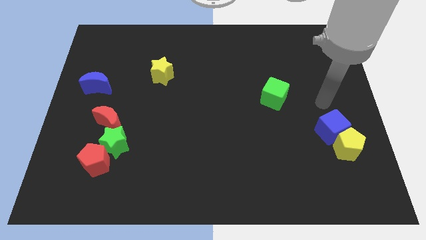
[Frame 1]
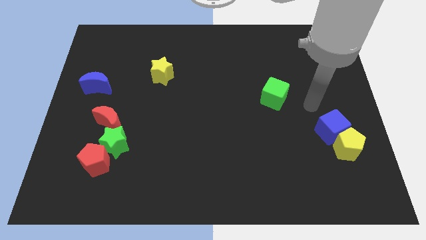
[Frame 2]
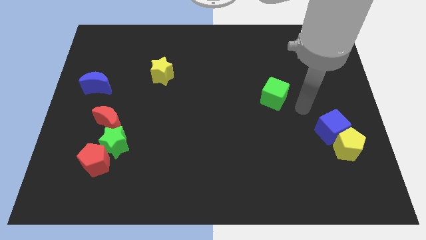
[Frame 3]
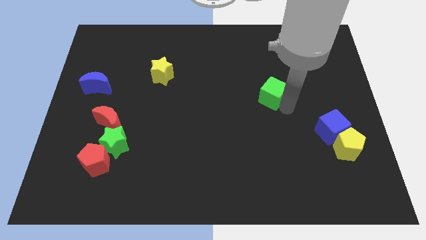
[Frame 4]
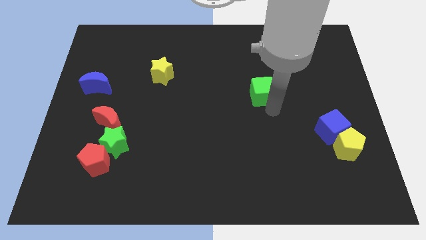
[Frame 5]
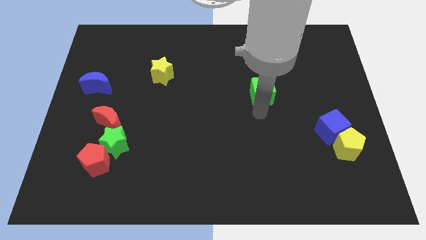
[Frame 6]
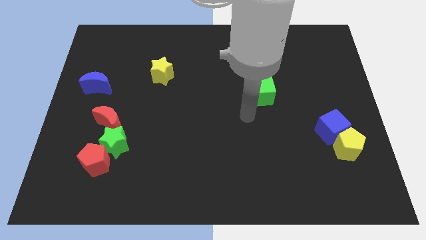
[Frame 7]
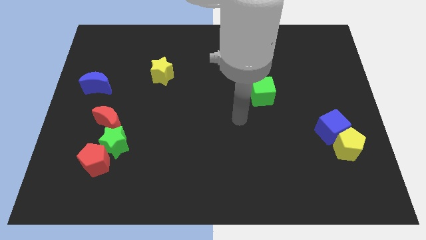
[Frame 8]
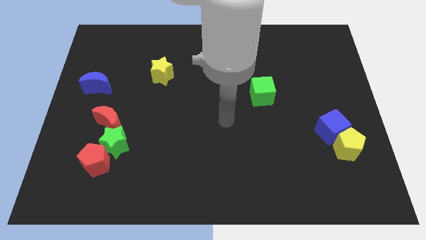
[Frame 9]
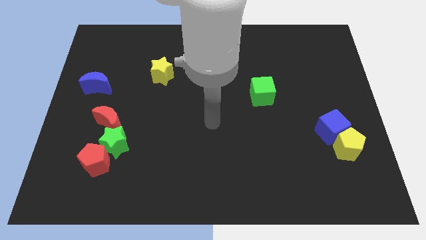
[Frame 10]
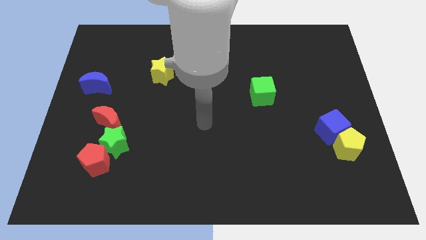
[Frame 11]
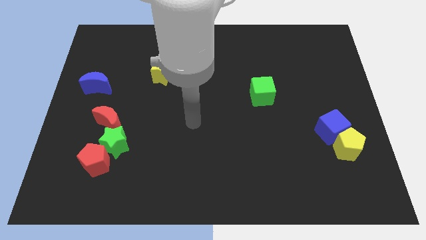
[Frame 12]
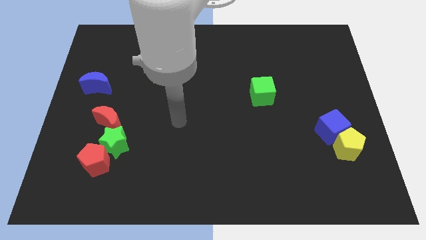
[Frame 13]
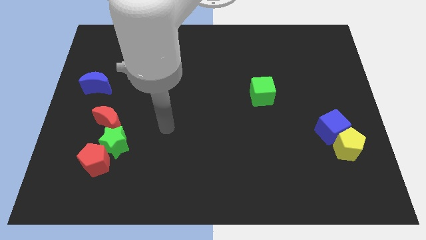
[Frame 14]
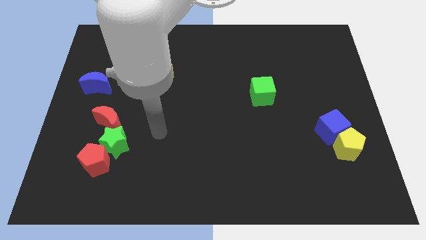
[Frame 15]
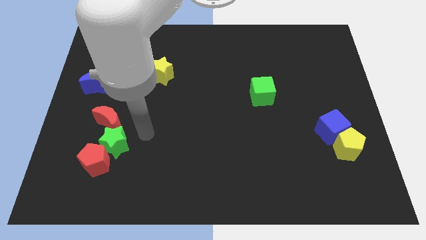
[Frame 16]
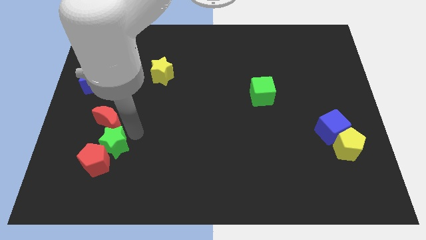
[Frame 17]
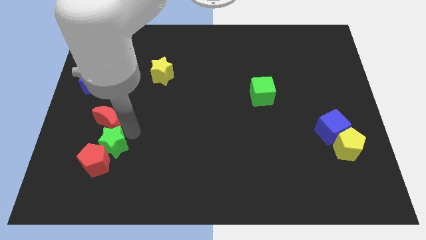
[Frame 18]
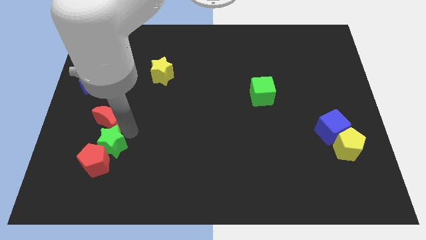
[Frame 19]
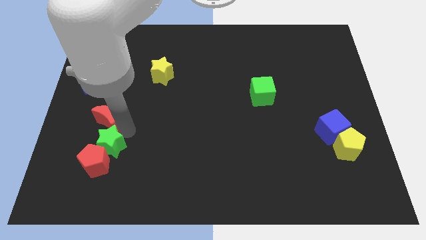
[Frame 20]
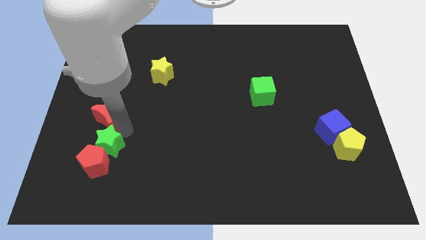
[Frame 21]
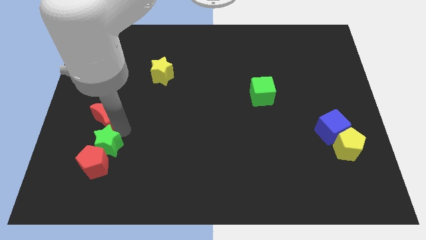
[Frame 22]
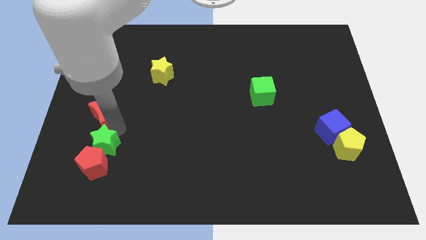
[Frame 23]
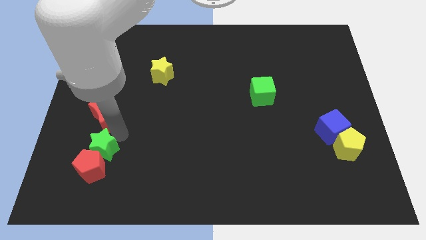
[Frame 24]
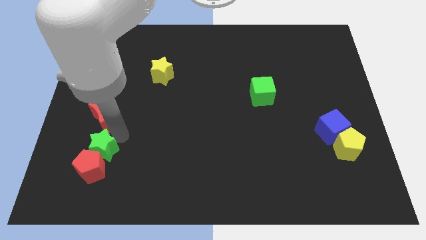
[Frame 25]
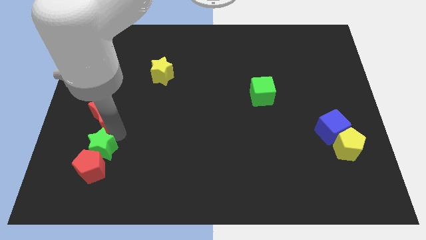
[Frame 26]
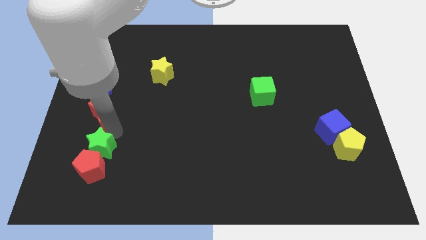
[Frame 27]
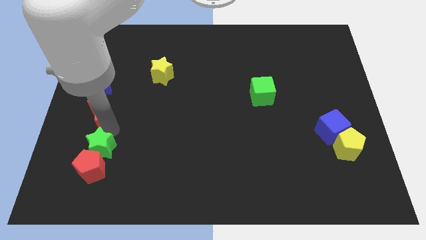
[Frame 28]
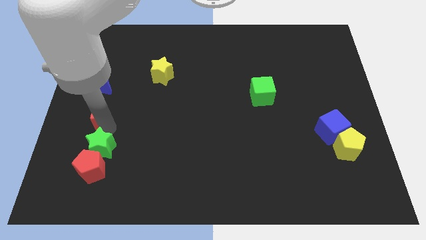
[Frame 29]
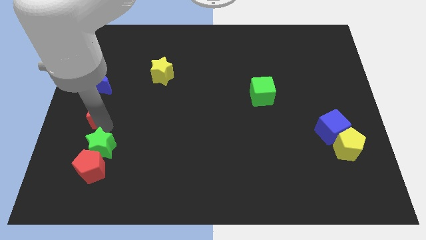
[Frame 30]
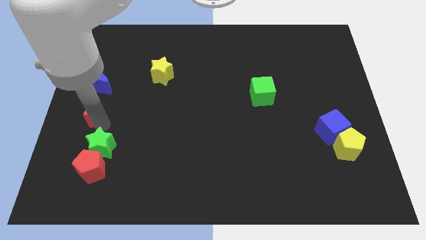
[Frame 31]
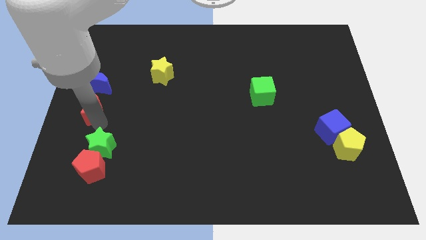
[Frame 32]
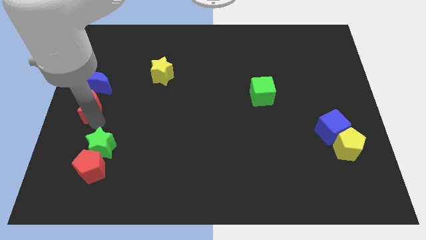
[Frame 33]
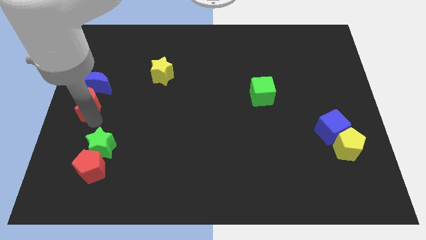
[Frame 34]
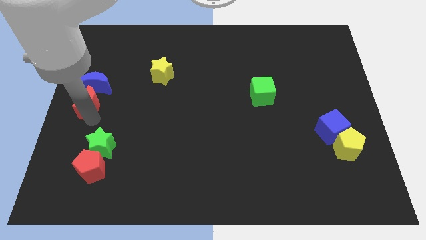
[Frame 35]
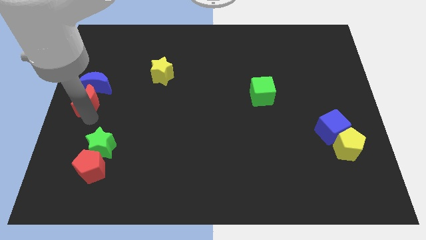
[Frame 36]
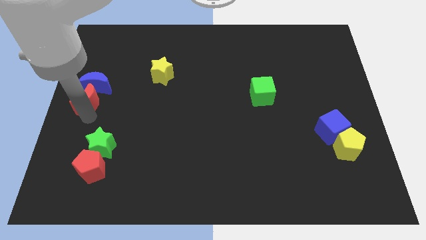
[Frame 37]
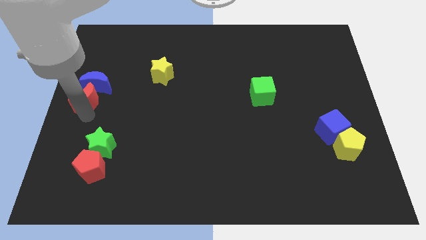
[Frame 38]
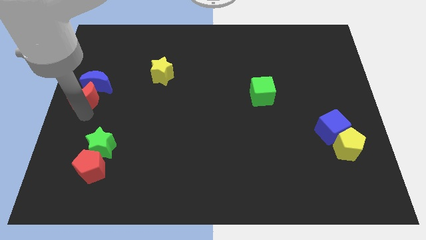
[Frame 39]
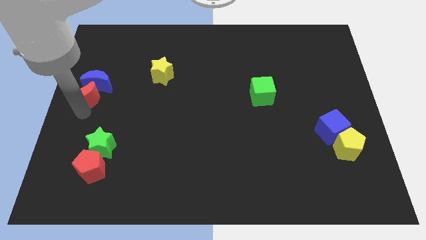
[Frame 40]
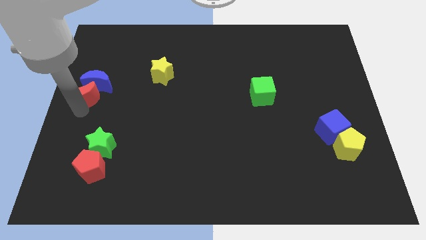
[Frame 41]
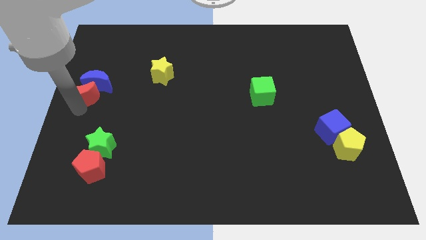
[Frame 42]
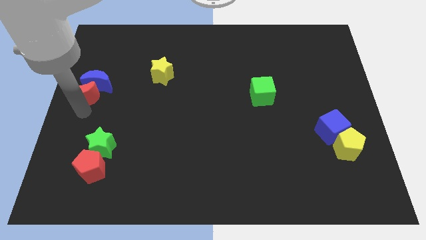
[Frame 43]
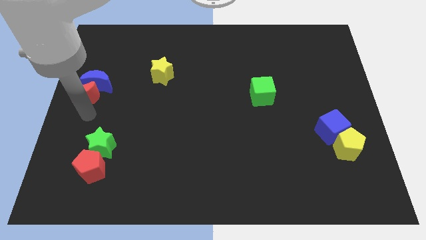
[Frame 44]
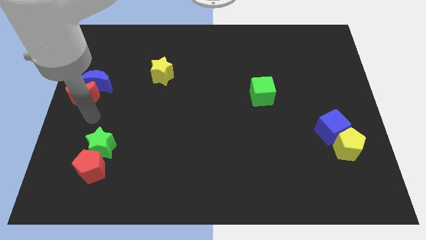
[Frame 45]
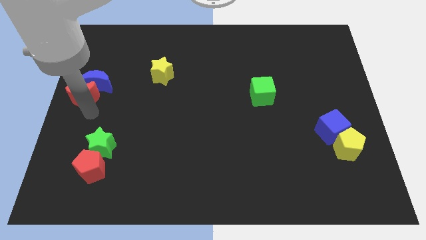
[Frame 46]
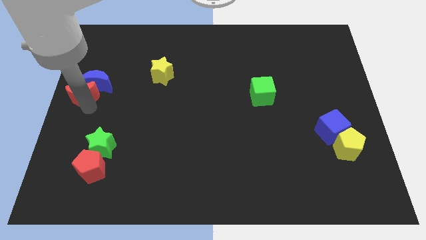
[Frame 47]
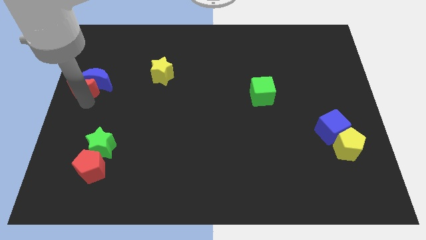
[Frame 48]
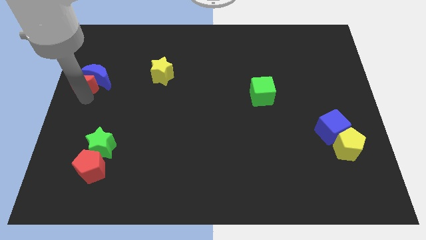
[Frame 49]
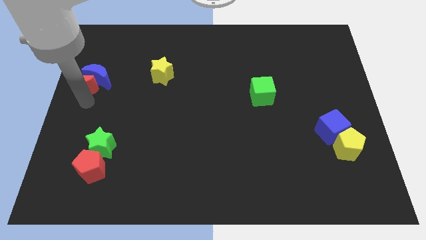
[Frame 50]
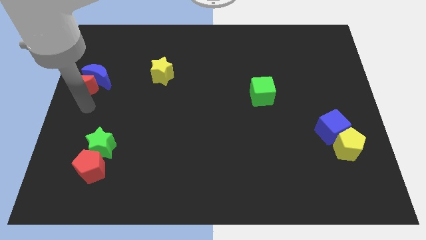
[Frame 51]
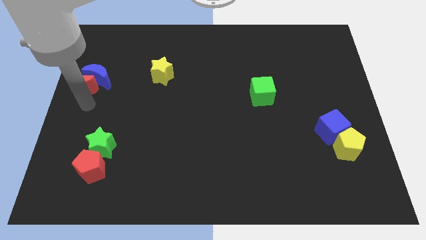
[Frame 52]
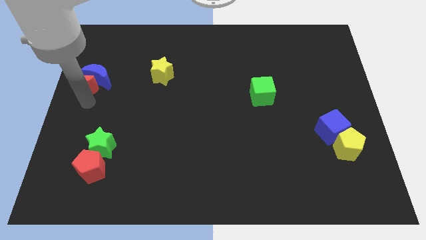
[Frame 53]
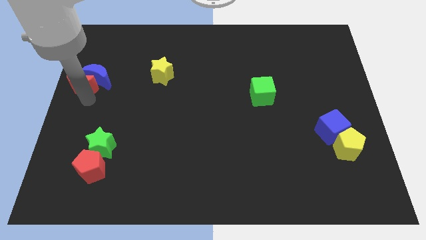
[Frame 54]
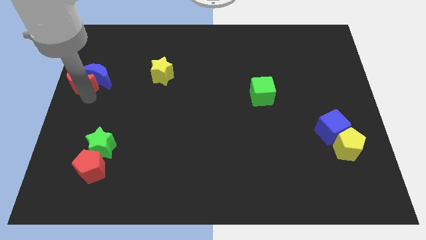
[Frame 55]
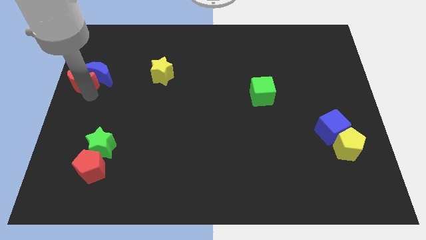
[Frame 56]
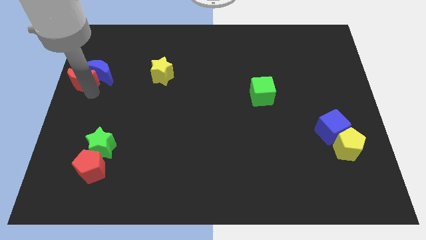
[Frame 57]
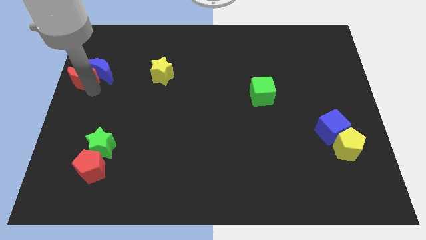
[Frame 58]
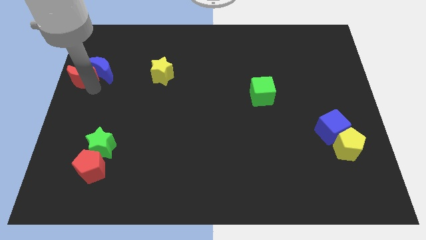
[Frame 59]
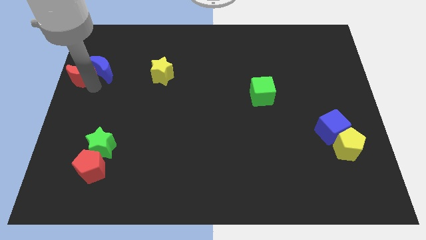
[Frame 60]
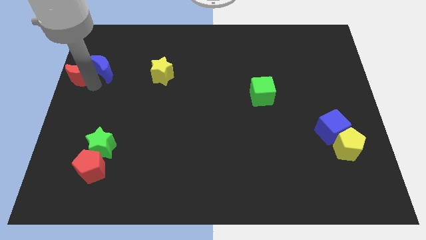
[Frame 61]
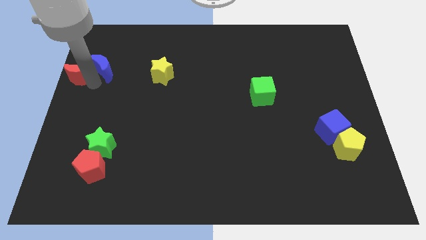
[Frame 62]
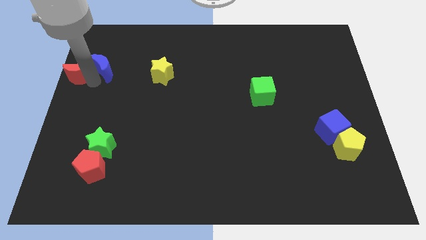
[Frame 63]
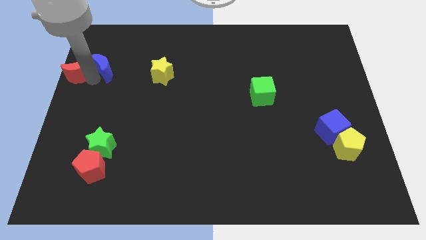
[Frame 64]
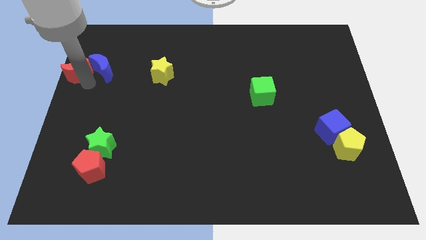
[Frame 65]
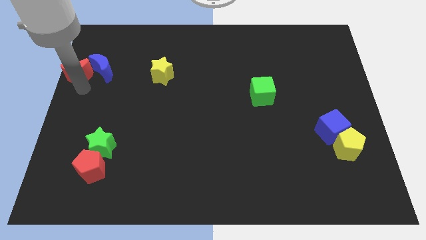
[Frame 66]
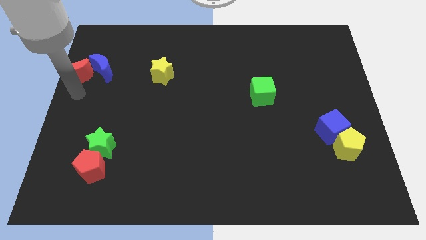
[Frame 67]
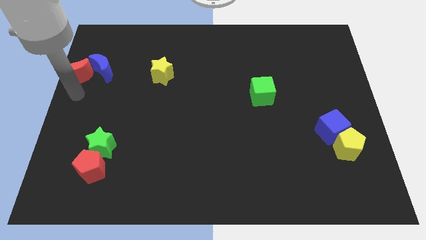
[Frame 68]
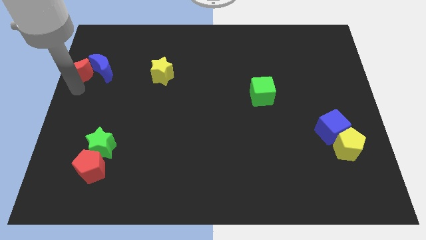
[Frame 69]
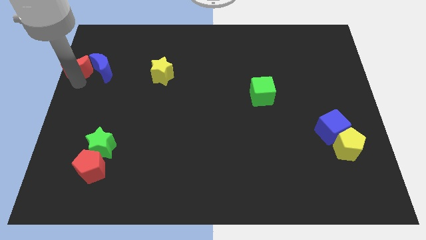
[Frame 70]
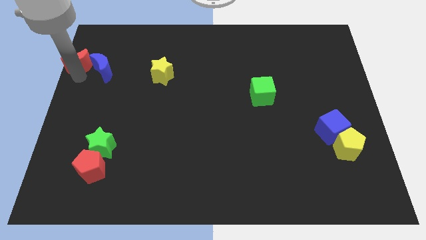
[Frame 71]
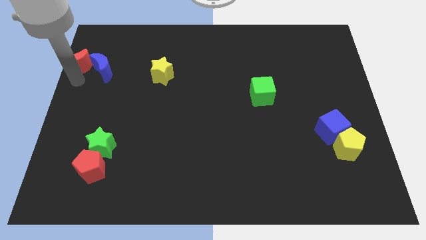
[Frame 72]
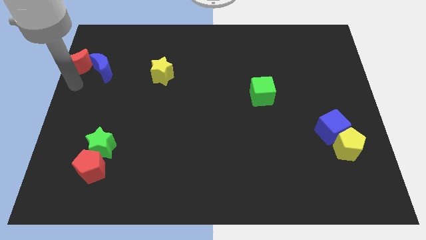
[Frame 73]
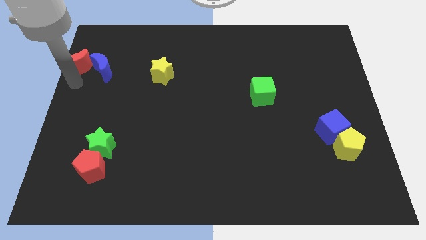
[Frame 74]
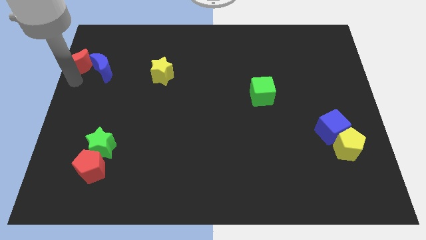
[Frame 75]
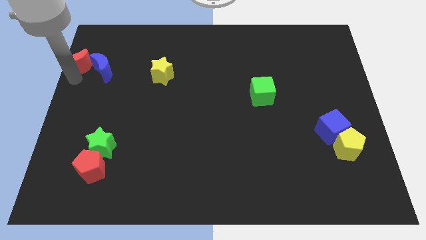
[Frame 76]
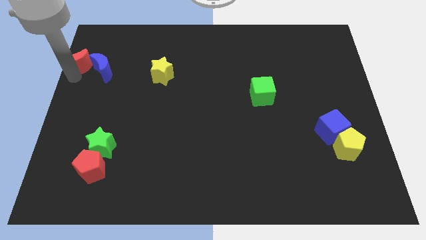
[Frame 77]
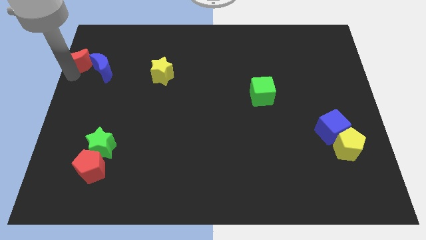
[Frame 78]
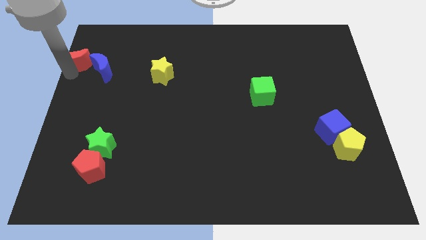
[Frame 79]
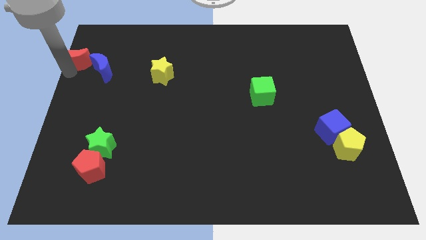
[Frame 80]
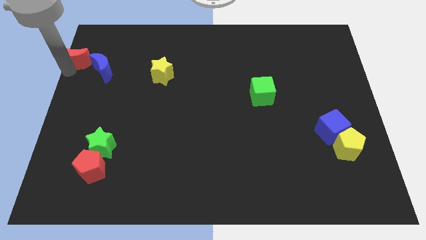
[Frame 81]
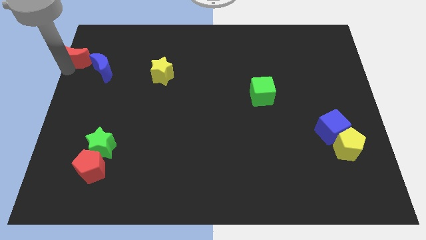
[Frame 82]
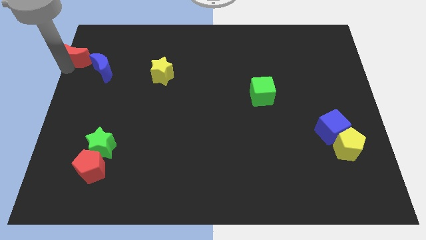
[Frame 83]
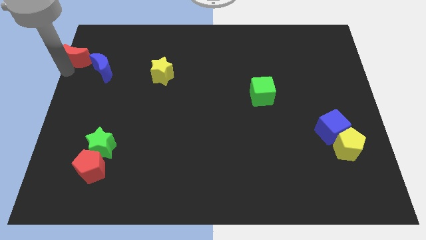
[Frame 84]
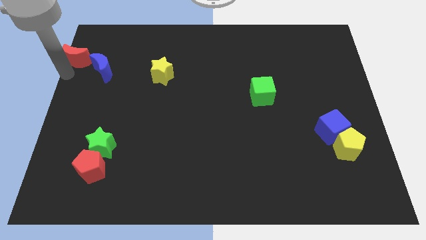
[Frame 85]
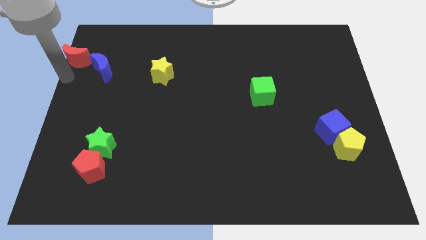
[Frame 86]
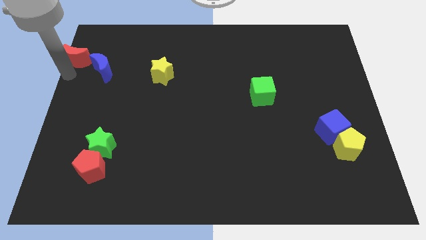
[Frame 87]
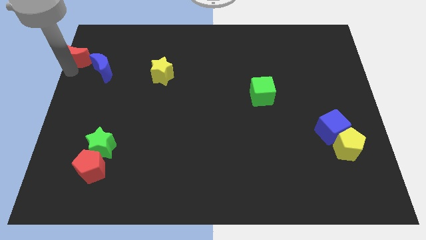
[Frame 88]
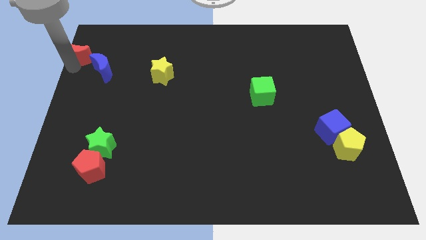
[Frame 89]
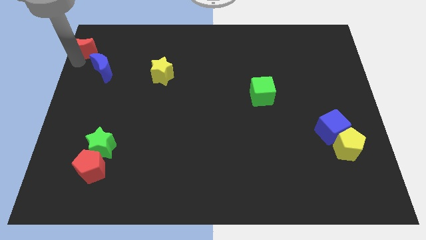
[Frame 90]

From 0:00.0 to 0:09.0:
push the red moon to the top left of the board
